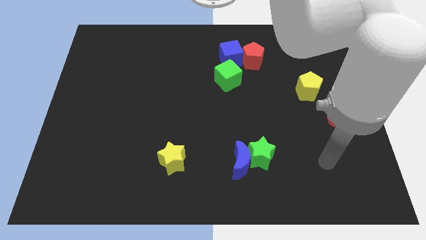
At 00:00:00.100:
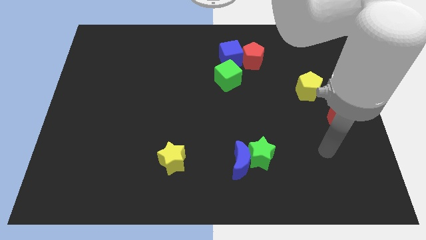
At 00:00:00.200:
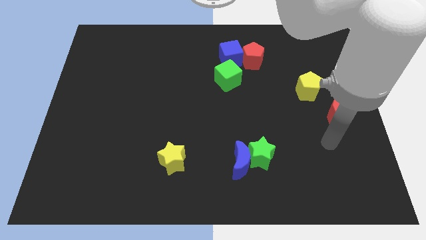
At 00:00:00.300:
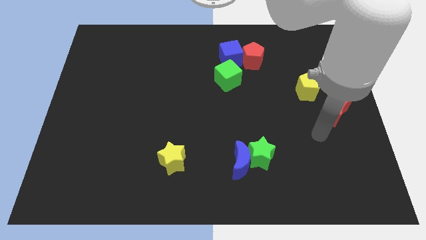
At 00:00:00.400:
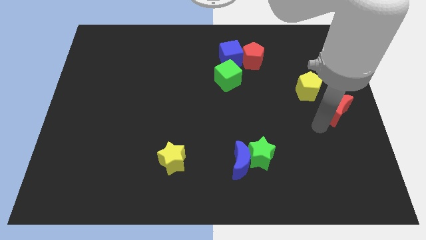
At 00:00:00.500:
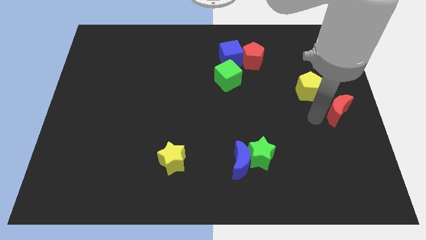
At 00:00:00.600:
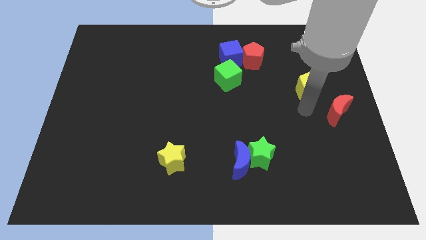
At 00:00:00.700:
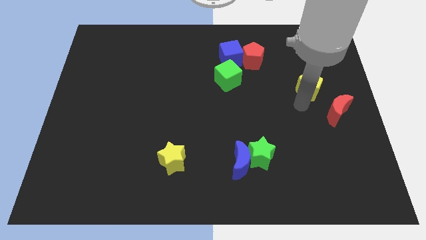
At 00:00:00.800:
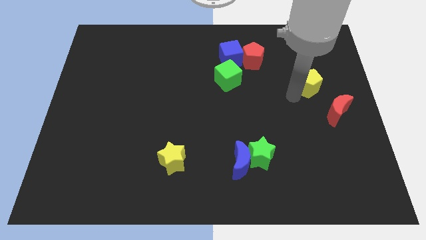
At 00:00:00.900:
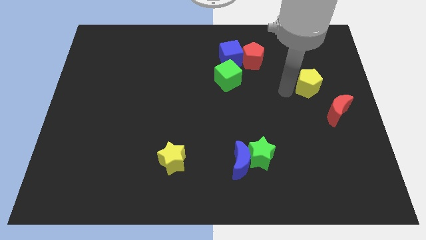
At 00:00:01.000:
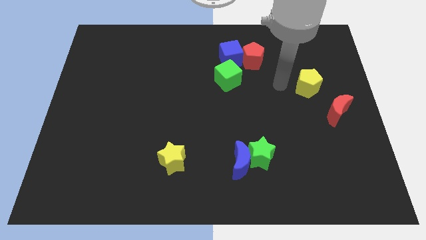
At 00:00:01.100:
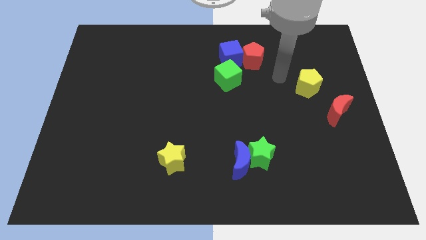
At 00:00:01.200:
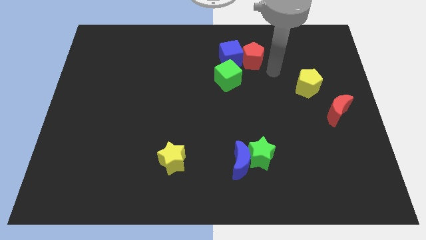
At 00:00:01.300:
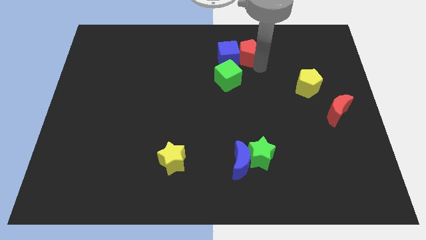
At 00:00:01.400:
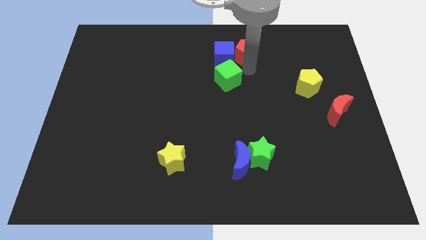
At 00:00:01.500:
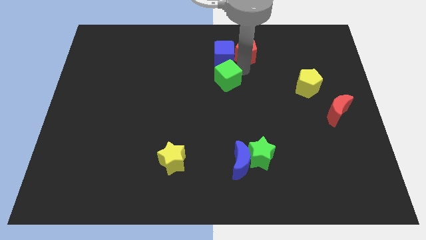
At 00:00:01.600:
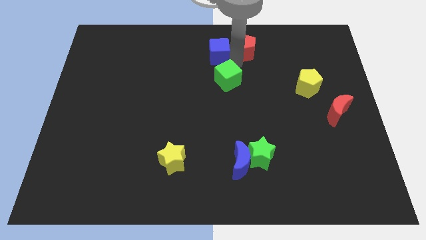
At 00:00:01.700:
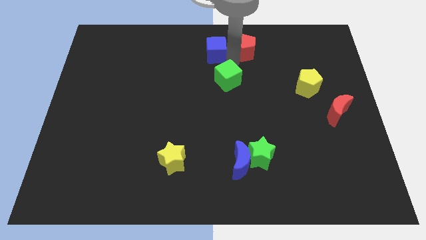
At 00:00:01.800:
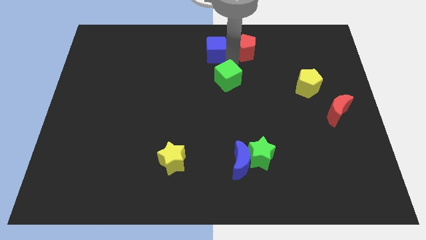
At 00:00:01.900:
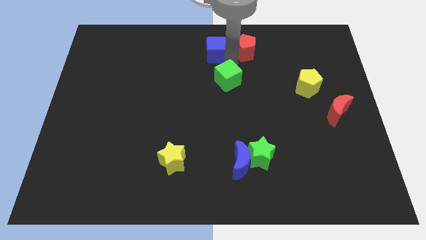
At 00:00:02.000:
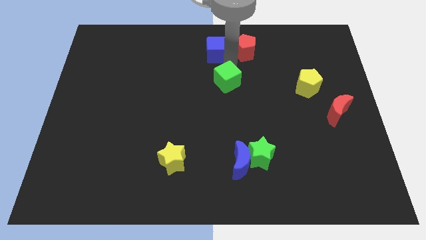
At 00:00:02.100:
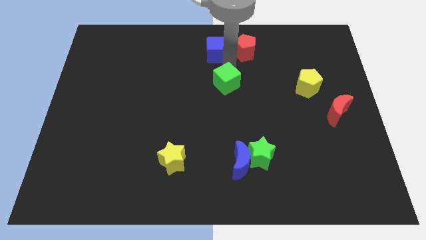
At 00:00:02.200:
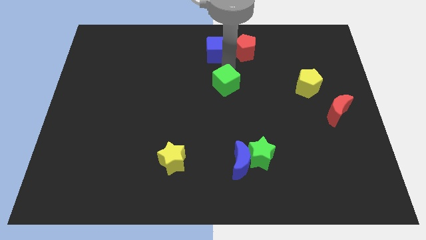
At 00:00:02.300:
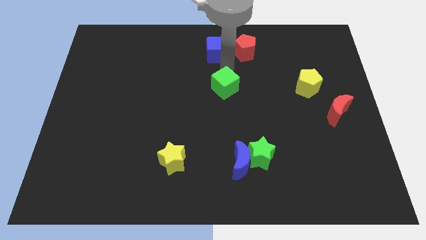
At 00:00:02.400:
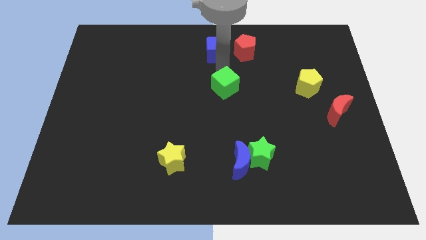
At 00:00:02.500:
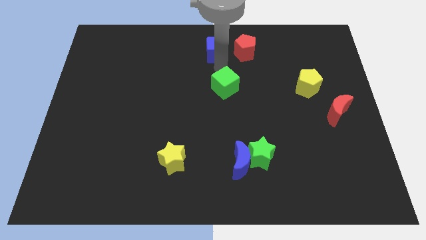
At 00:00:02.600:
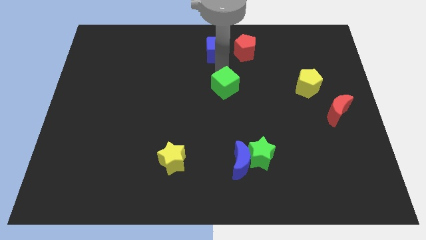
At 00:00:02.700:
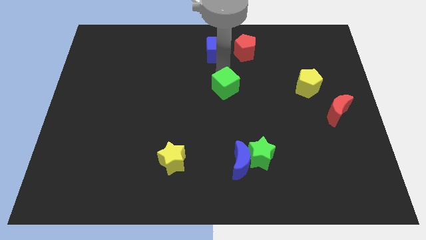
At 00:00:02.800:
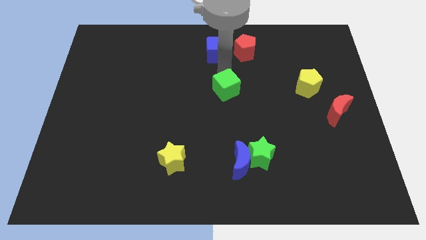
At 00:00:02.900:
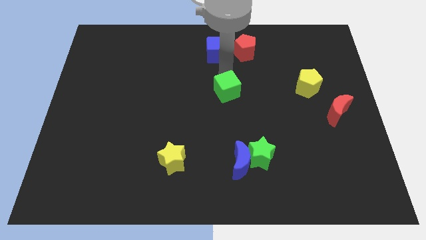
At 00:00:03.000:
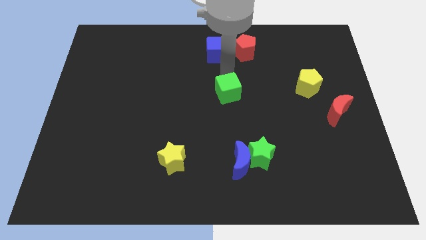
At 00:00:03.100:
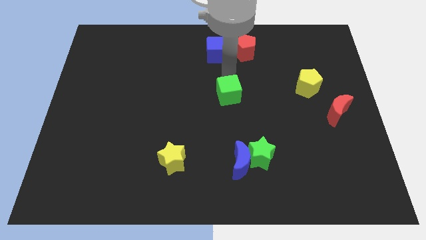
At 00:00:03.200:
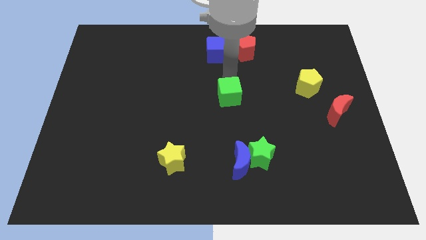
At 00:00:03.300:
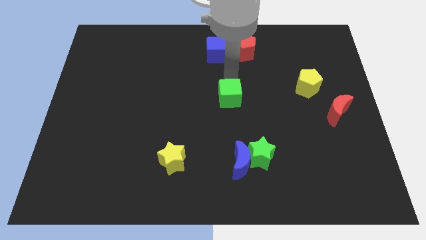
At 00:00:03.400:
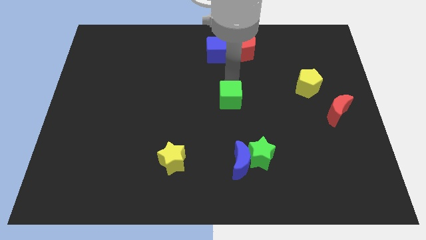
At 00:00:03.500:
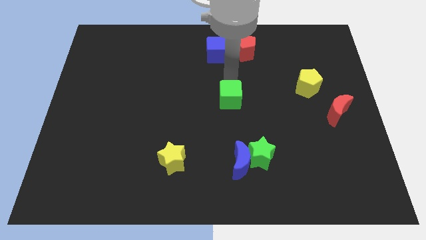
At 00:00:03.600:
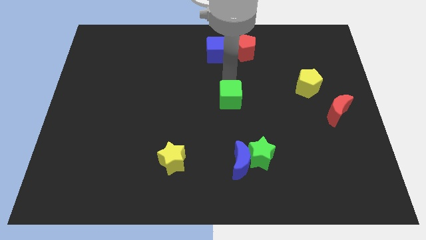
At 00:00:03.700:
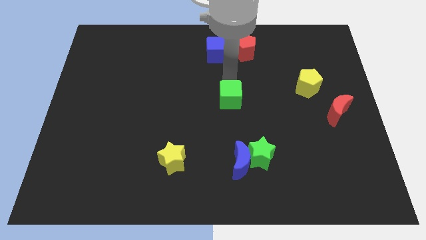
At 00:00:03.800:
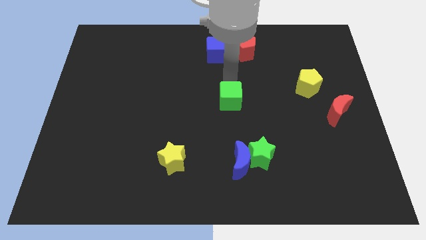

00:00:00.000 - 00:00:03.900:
slide the green cube a little bit down

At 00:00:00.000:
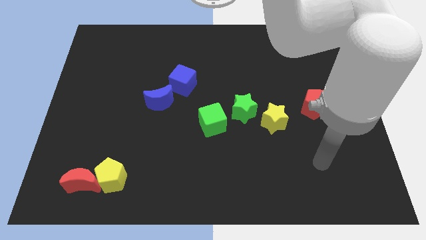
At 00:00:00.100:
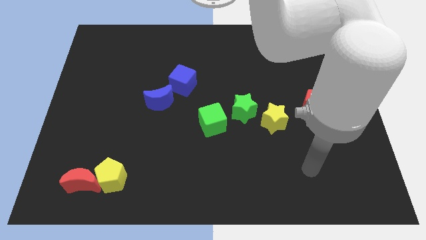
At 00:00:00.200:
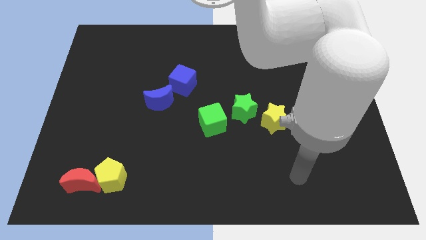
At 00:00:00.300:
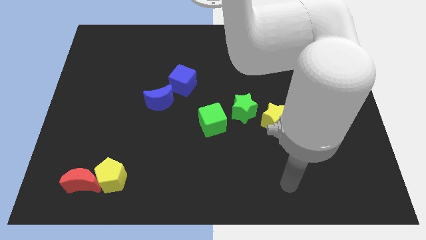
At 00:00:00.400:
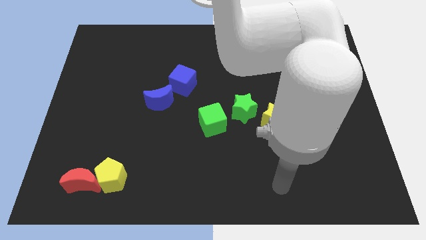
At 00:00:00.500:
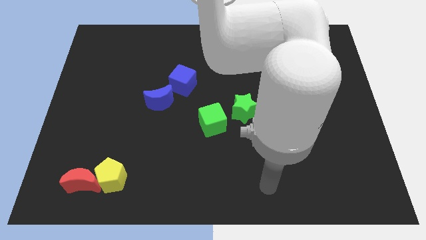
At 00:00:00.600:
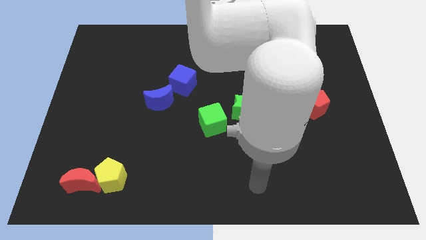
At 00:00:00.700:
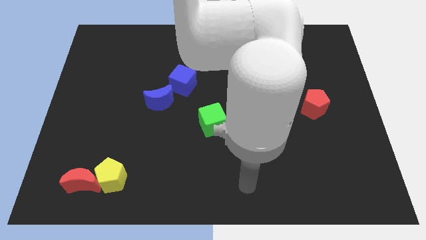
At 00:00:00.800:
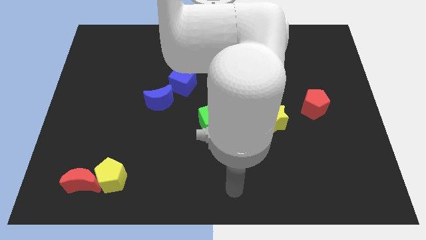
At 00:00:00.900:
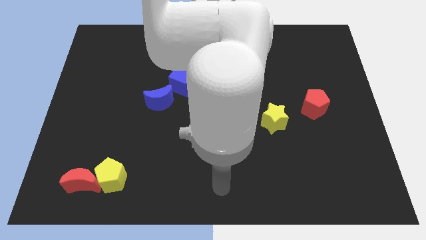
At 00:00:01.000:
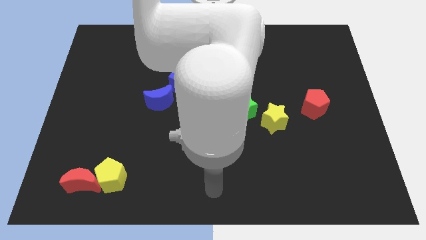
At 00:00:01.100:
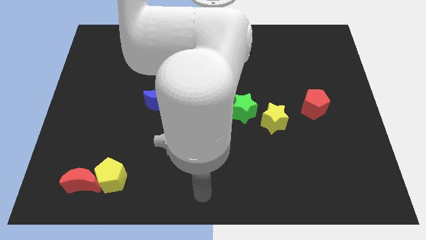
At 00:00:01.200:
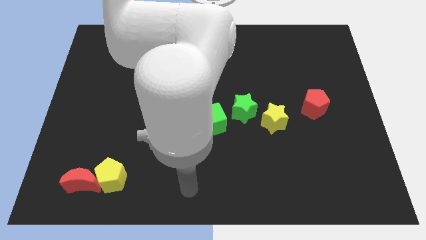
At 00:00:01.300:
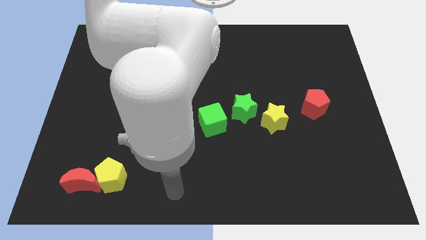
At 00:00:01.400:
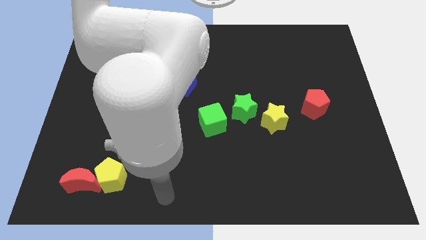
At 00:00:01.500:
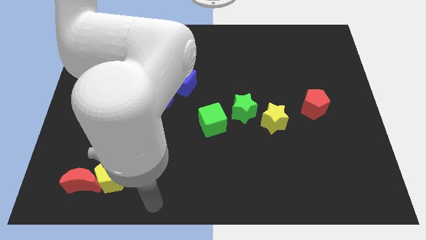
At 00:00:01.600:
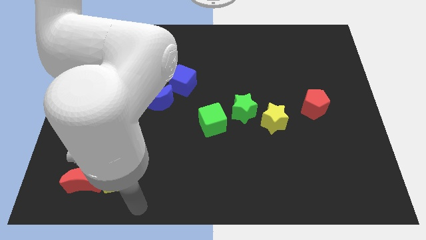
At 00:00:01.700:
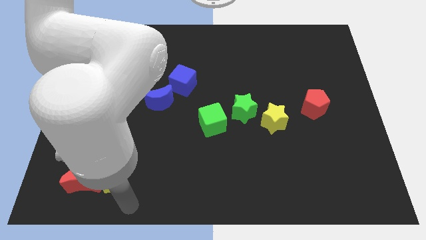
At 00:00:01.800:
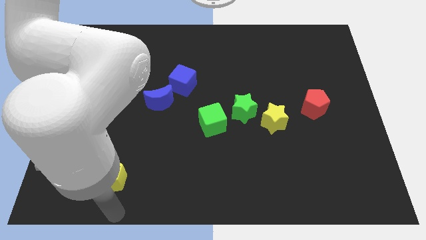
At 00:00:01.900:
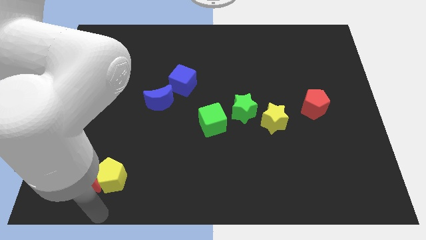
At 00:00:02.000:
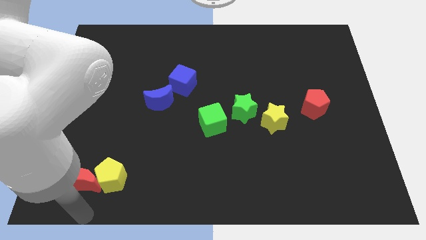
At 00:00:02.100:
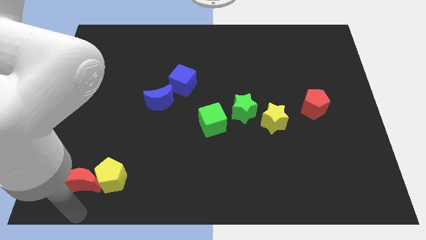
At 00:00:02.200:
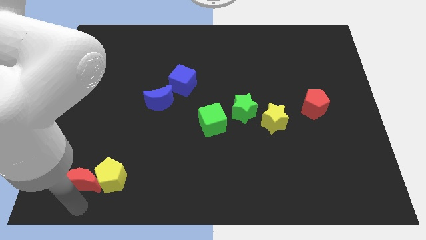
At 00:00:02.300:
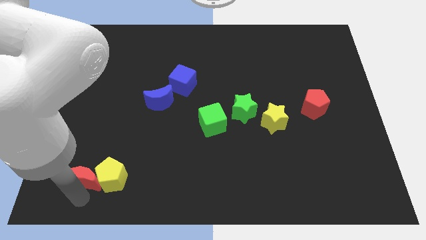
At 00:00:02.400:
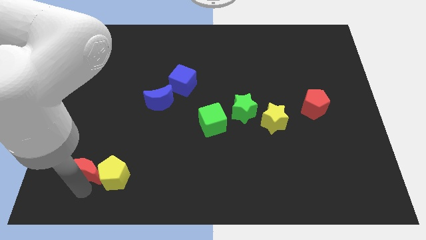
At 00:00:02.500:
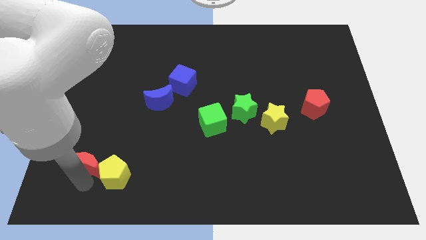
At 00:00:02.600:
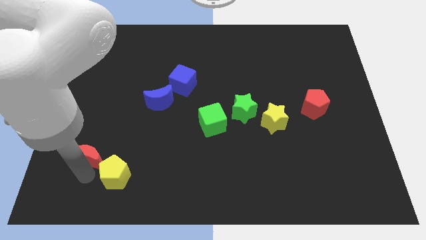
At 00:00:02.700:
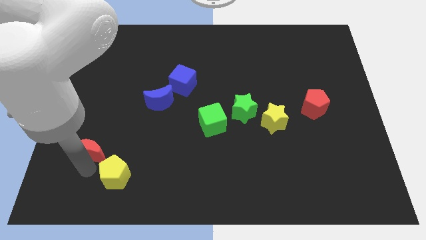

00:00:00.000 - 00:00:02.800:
slightly slide the red moon upwards

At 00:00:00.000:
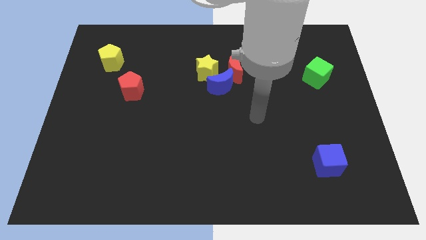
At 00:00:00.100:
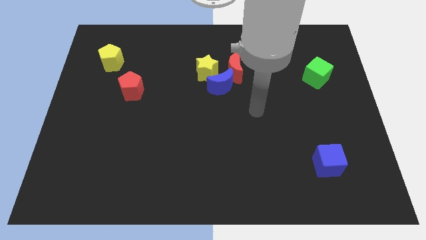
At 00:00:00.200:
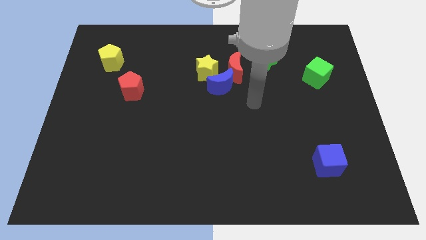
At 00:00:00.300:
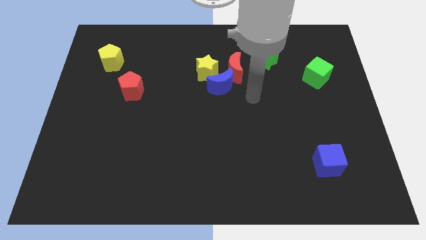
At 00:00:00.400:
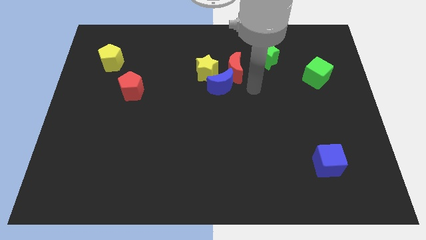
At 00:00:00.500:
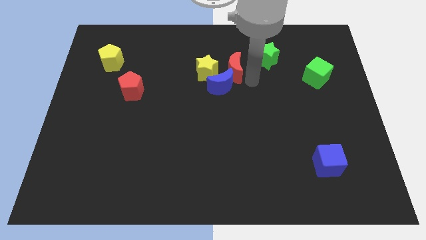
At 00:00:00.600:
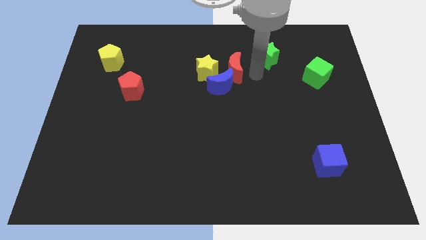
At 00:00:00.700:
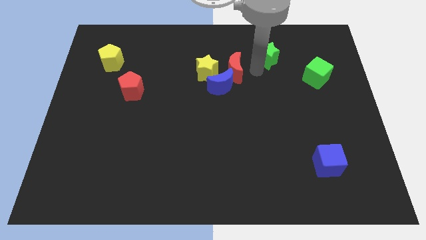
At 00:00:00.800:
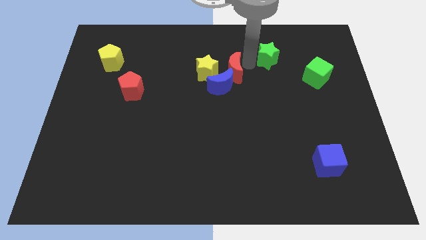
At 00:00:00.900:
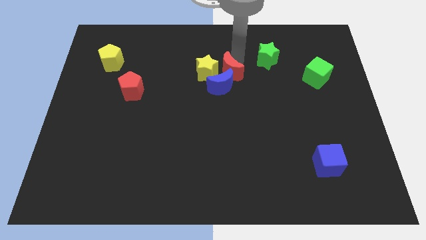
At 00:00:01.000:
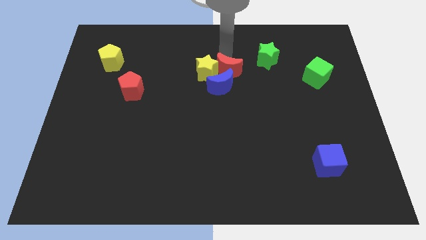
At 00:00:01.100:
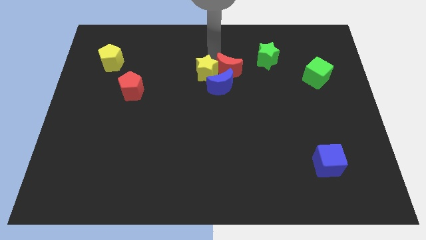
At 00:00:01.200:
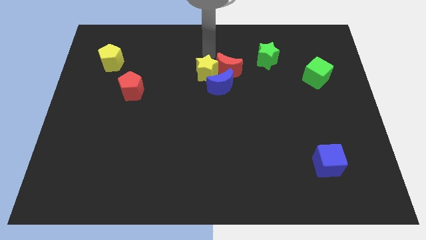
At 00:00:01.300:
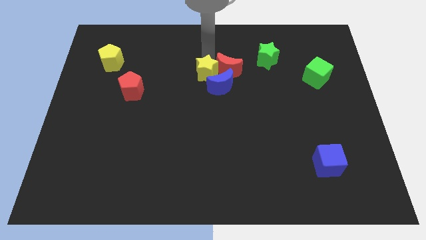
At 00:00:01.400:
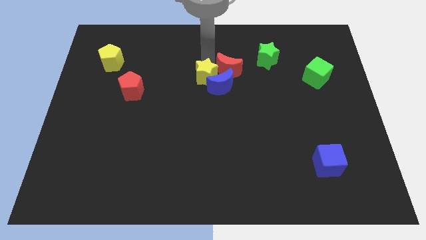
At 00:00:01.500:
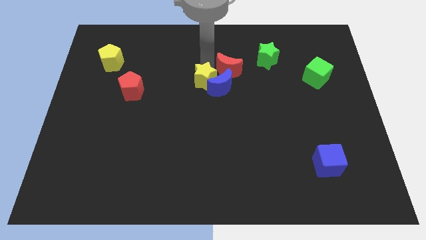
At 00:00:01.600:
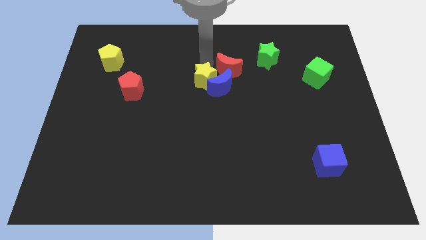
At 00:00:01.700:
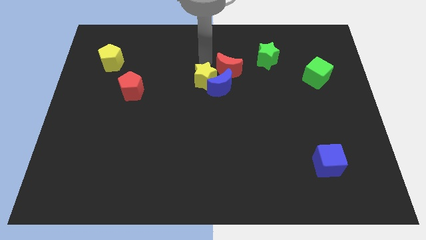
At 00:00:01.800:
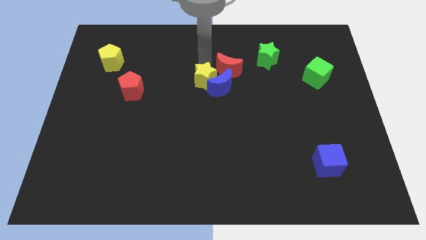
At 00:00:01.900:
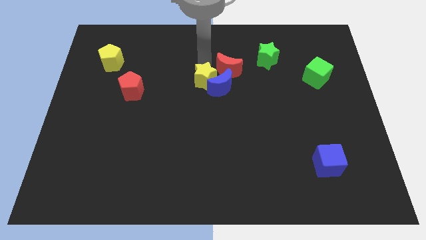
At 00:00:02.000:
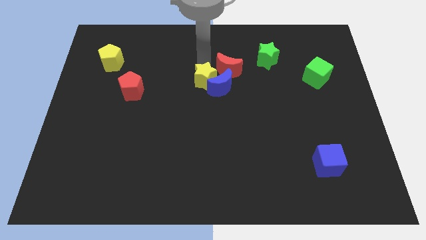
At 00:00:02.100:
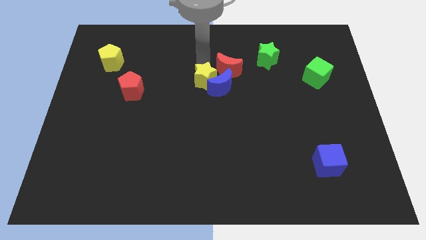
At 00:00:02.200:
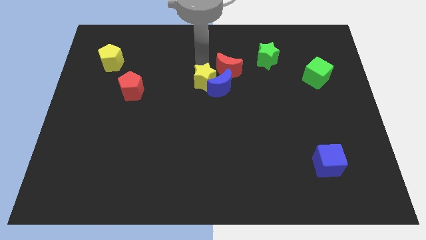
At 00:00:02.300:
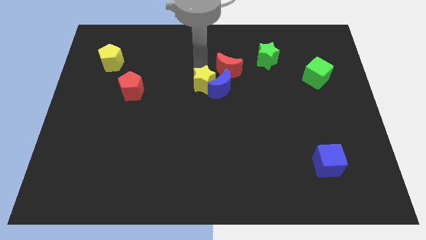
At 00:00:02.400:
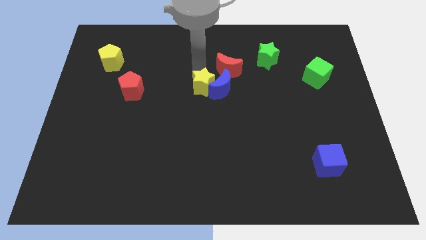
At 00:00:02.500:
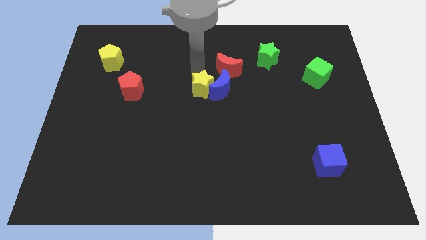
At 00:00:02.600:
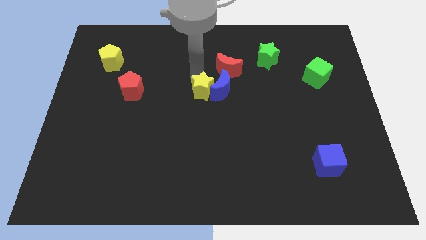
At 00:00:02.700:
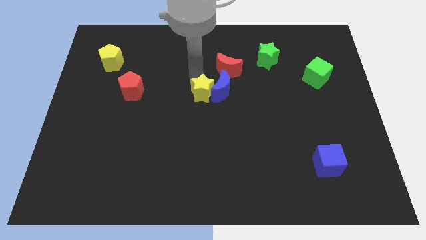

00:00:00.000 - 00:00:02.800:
slightly push the yellow star downwards
